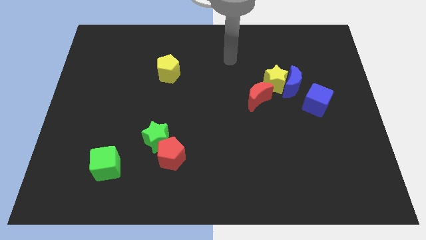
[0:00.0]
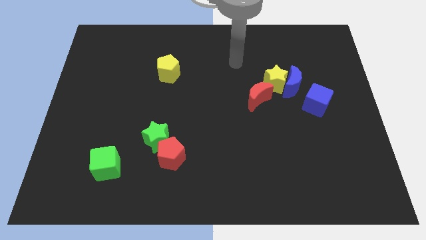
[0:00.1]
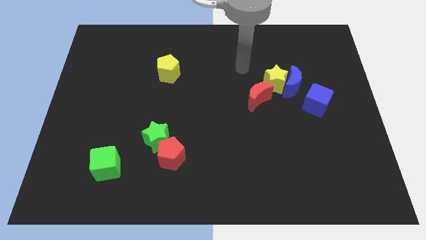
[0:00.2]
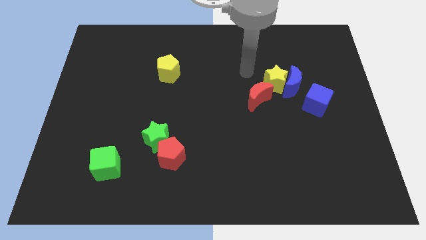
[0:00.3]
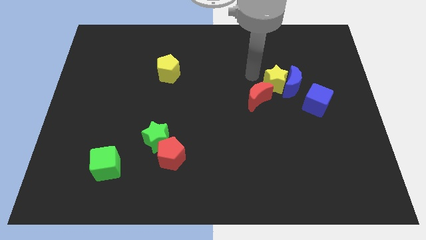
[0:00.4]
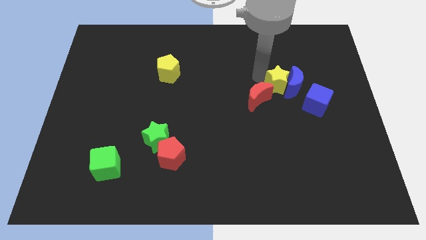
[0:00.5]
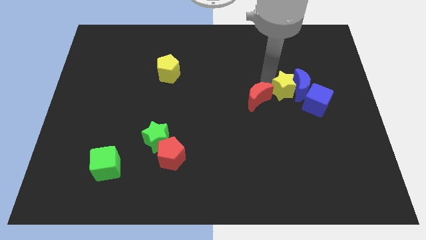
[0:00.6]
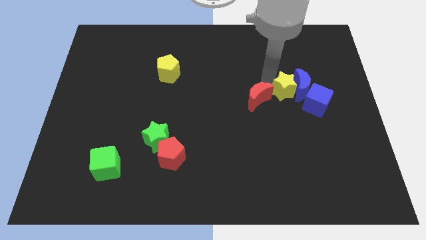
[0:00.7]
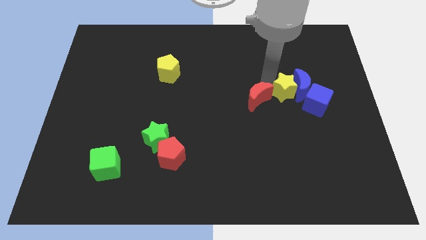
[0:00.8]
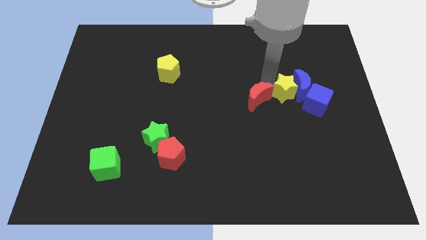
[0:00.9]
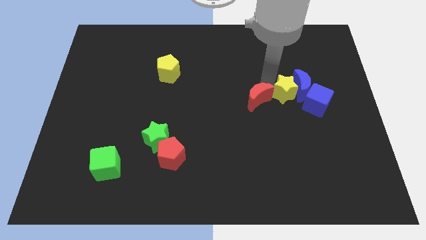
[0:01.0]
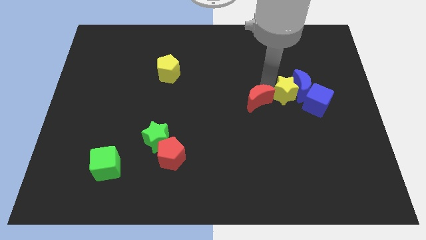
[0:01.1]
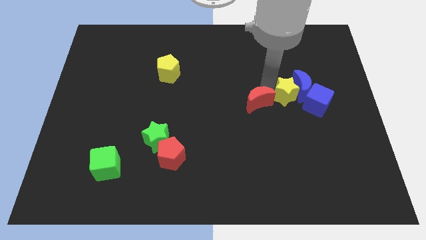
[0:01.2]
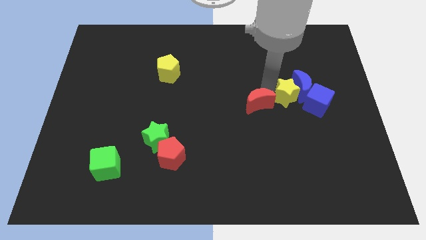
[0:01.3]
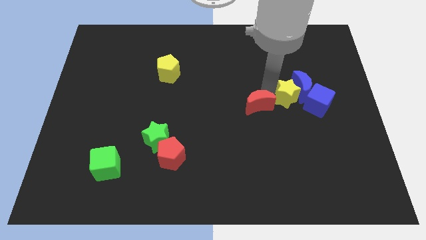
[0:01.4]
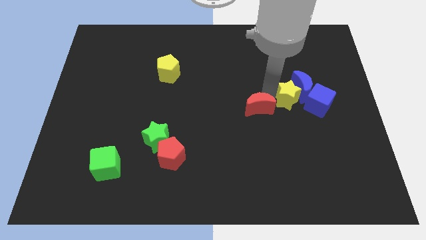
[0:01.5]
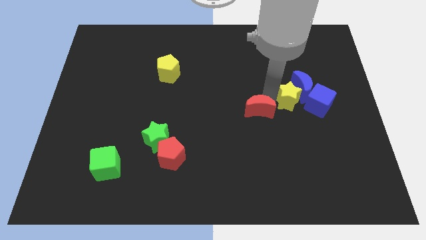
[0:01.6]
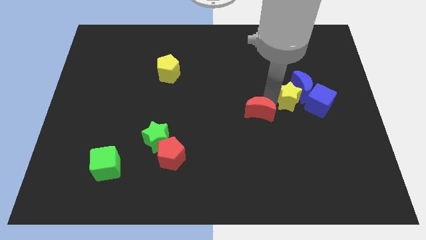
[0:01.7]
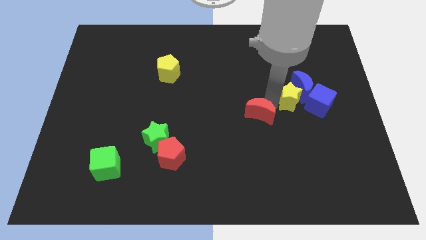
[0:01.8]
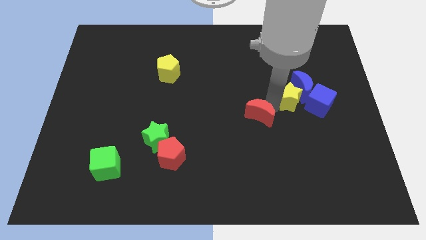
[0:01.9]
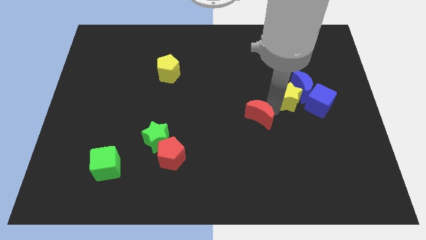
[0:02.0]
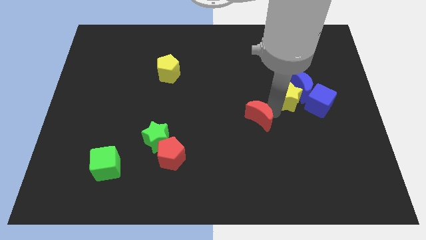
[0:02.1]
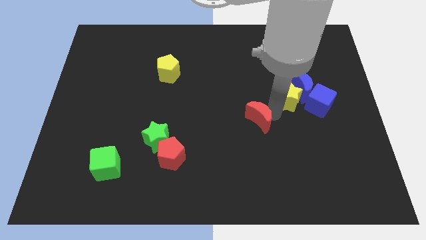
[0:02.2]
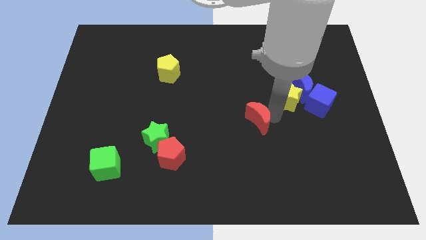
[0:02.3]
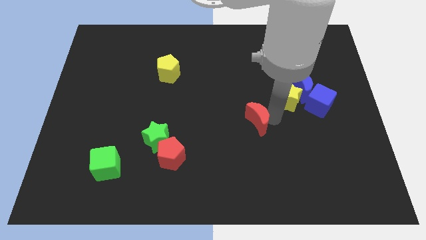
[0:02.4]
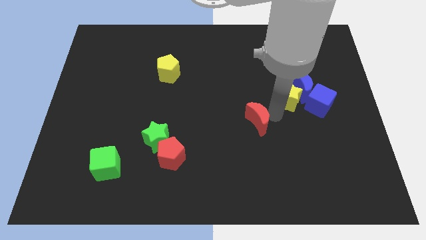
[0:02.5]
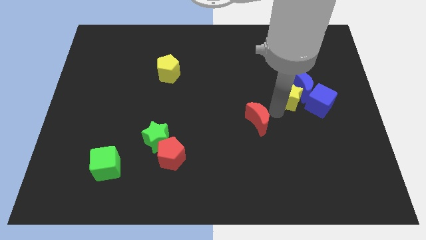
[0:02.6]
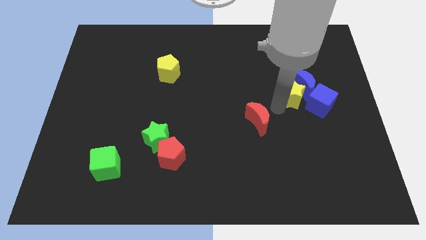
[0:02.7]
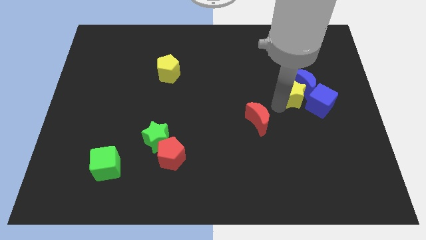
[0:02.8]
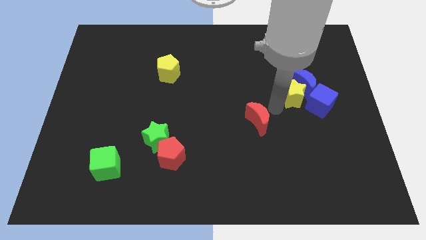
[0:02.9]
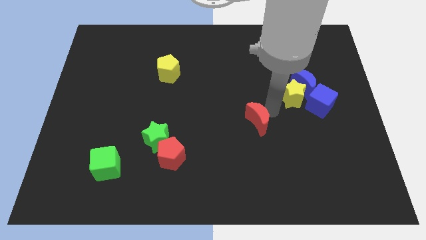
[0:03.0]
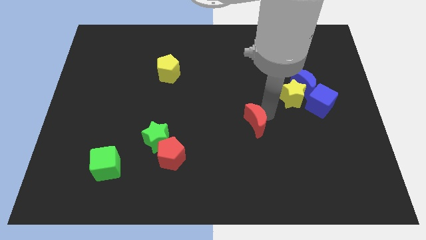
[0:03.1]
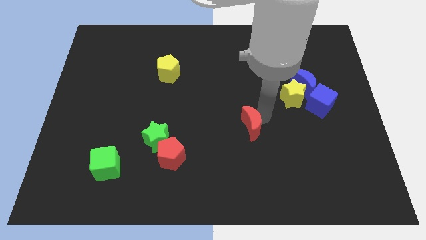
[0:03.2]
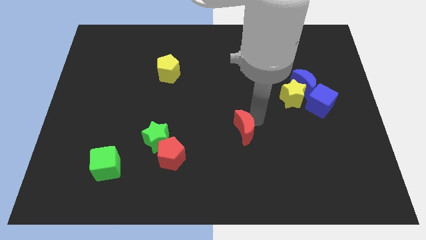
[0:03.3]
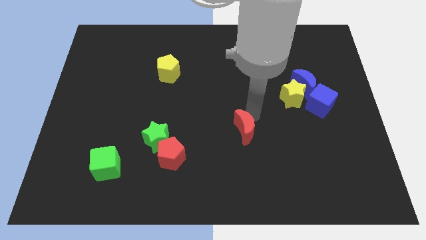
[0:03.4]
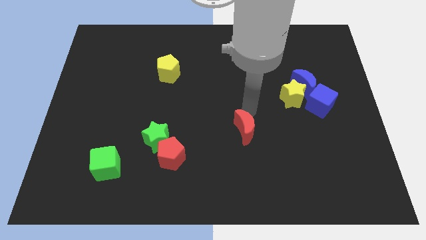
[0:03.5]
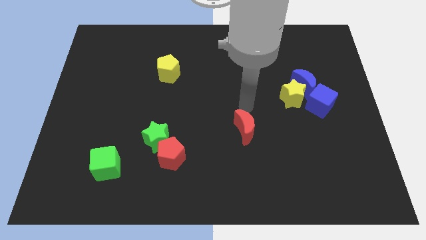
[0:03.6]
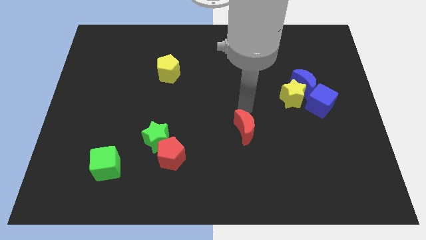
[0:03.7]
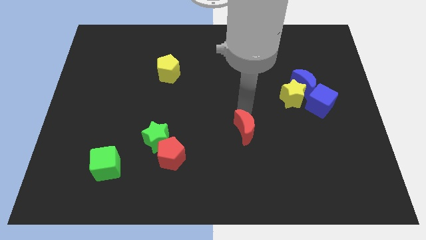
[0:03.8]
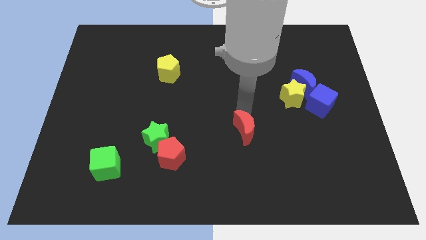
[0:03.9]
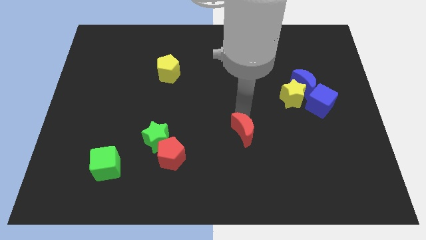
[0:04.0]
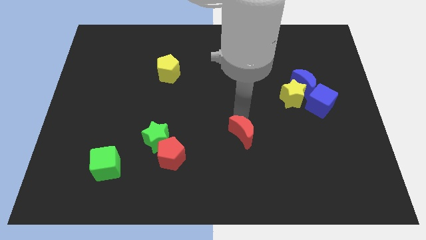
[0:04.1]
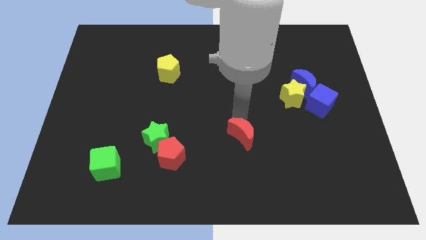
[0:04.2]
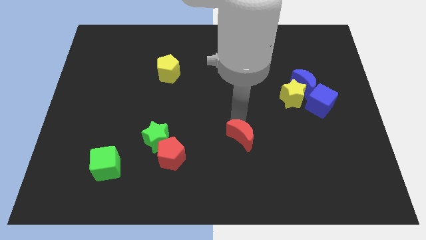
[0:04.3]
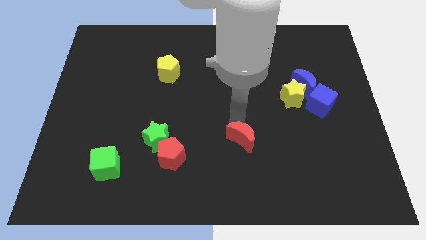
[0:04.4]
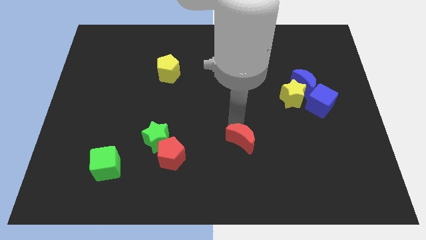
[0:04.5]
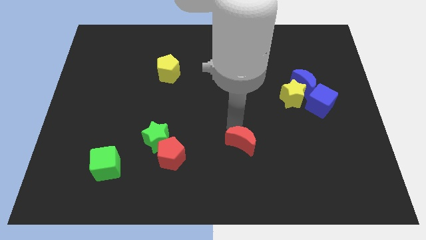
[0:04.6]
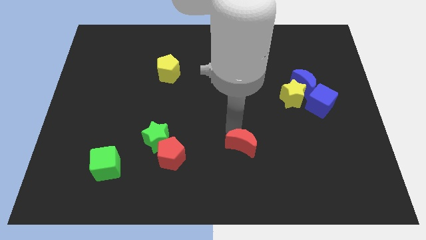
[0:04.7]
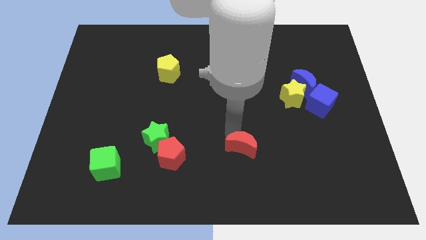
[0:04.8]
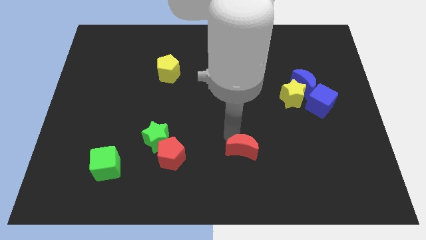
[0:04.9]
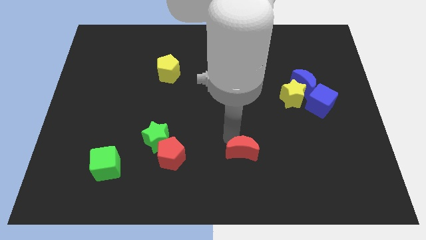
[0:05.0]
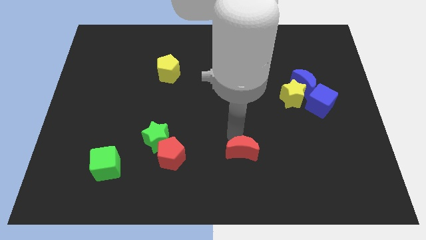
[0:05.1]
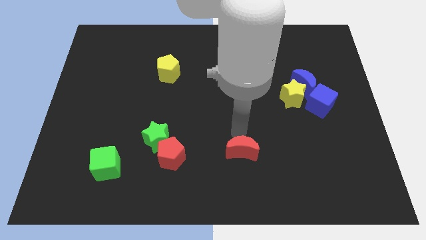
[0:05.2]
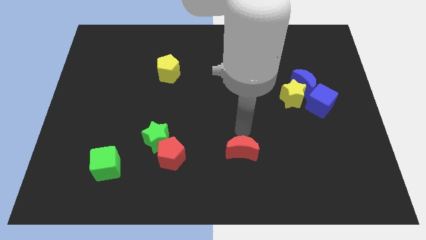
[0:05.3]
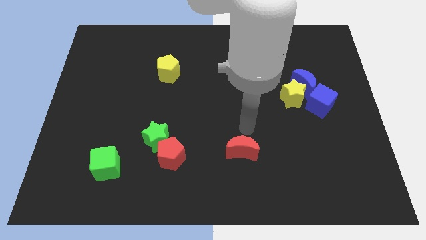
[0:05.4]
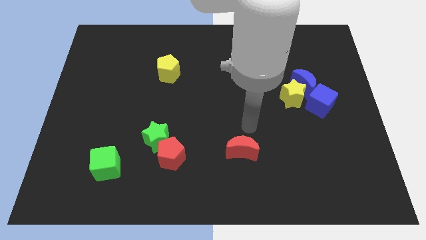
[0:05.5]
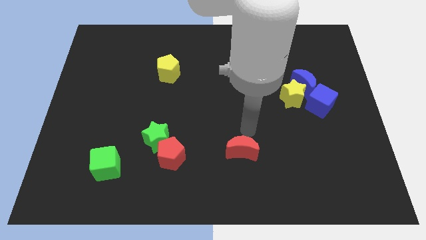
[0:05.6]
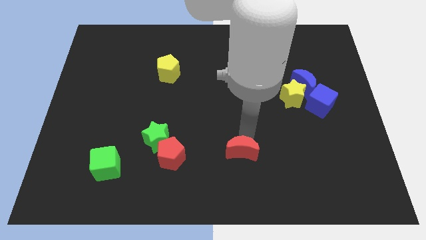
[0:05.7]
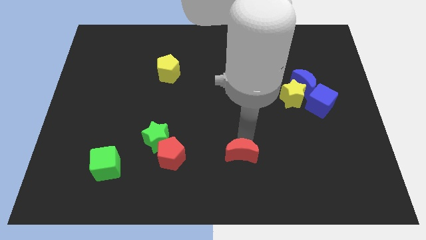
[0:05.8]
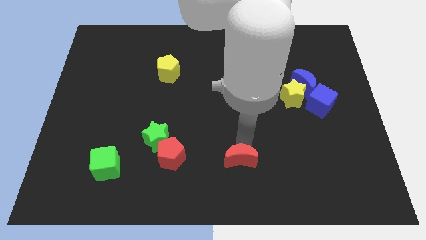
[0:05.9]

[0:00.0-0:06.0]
put the red moon to the bottom

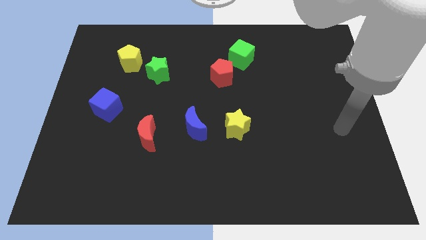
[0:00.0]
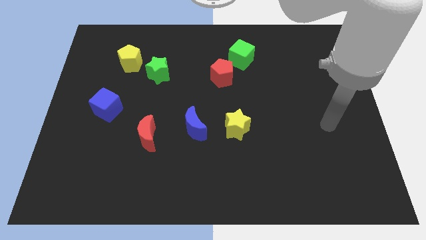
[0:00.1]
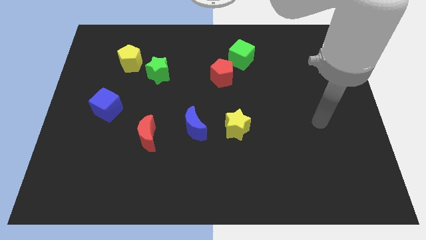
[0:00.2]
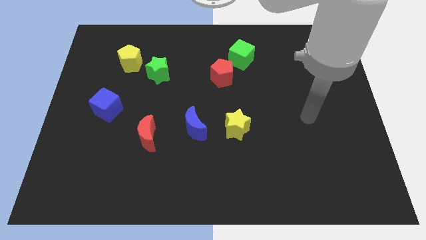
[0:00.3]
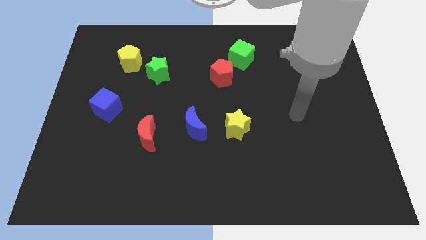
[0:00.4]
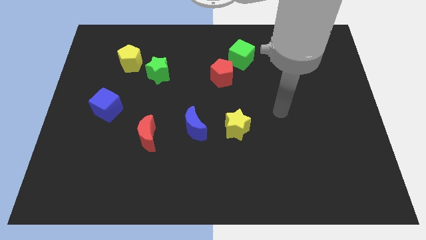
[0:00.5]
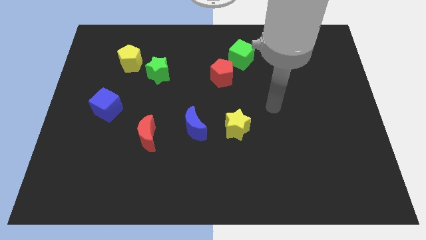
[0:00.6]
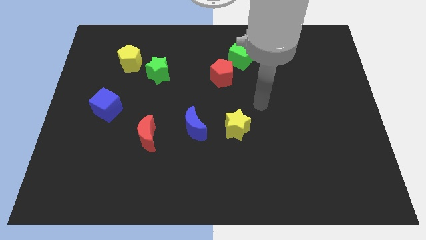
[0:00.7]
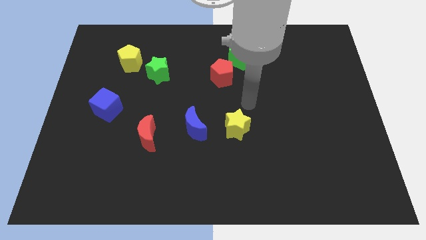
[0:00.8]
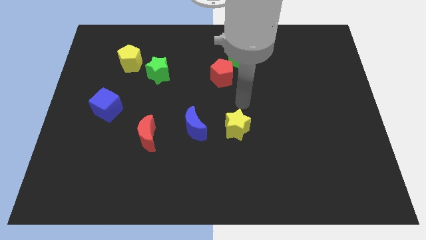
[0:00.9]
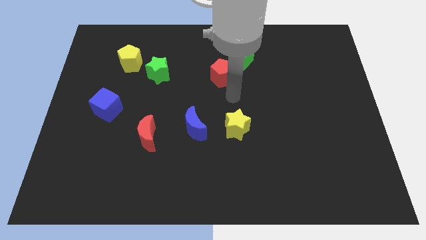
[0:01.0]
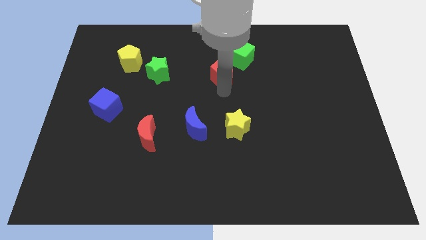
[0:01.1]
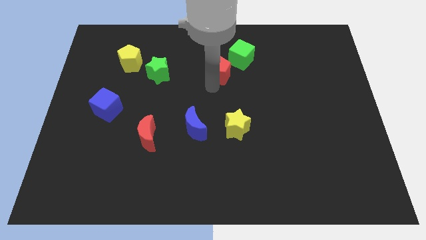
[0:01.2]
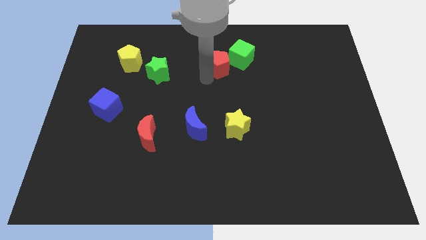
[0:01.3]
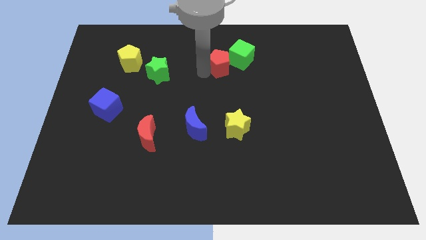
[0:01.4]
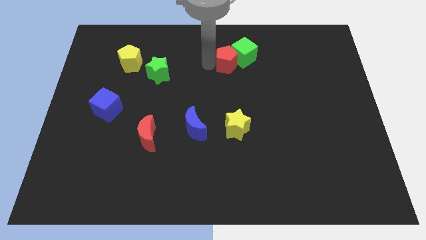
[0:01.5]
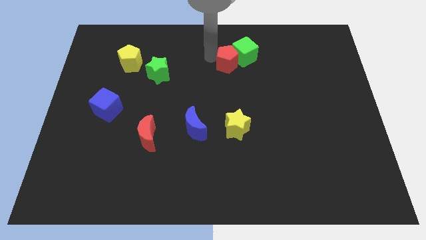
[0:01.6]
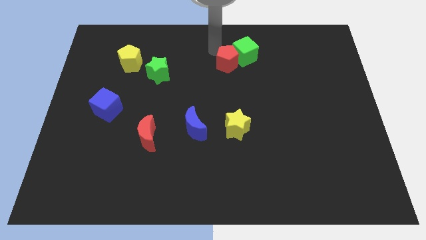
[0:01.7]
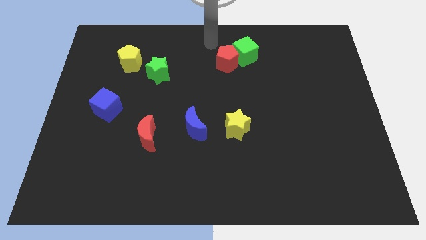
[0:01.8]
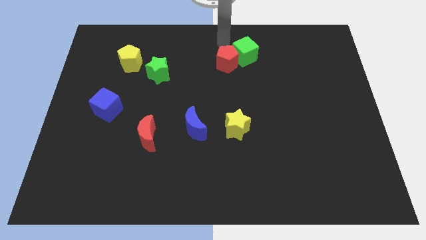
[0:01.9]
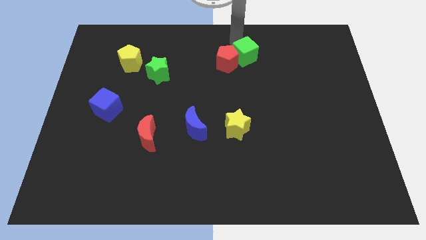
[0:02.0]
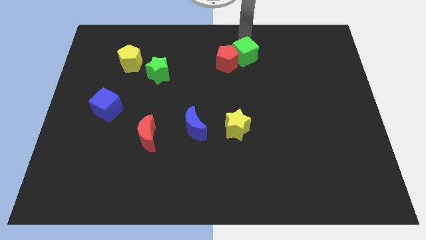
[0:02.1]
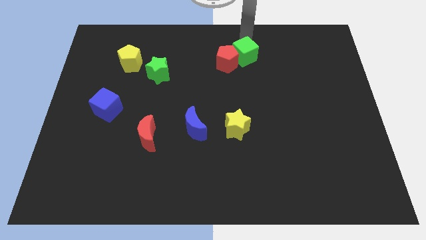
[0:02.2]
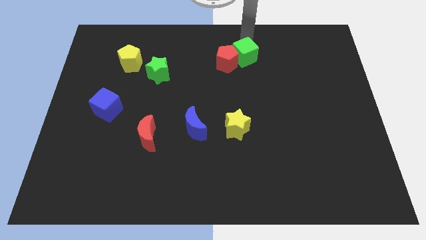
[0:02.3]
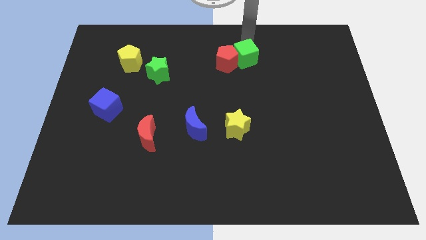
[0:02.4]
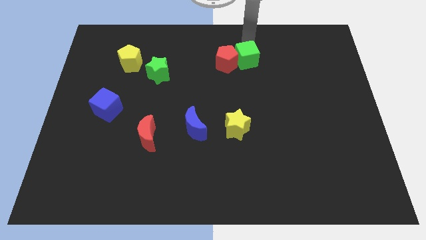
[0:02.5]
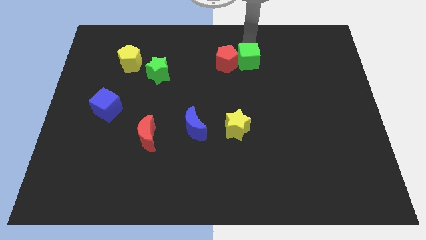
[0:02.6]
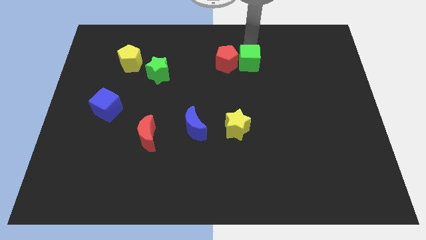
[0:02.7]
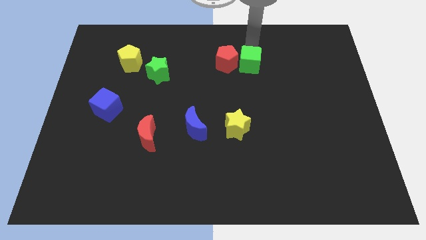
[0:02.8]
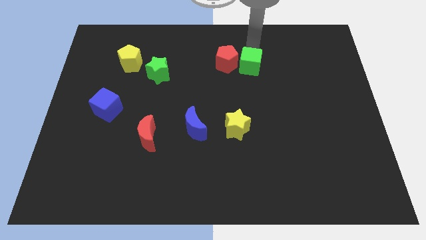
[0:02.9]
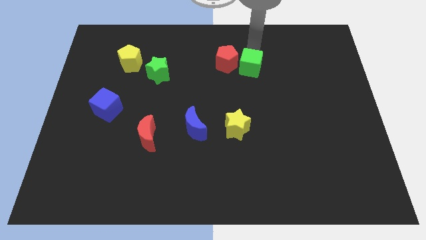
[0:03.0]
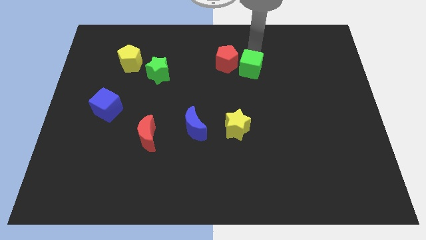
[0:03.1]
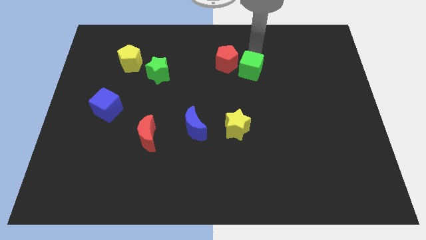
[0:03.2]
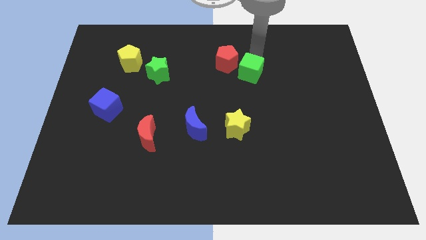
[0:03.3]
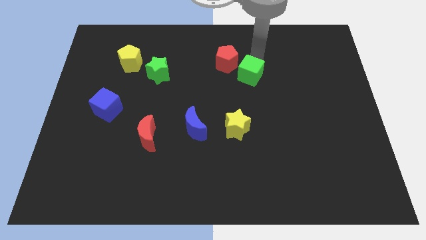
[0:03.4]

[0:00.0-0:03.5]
move the green cube to the center of the board
